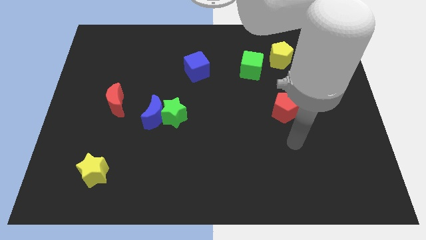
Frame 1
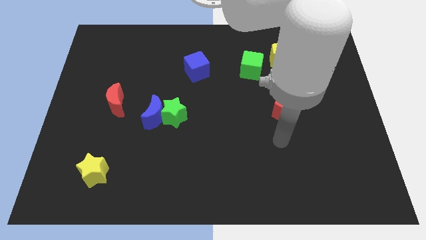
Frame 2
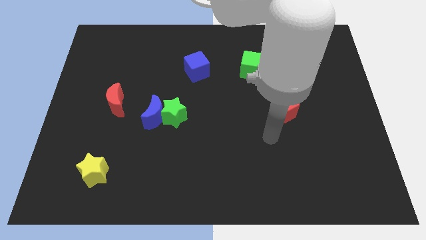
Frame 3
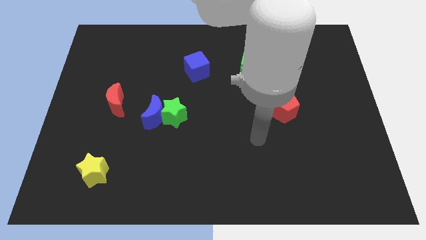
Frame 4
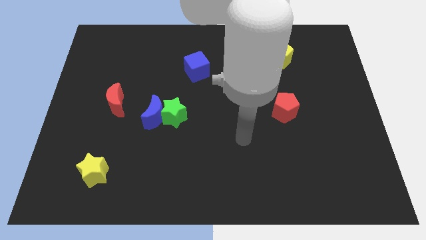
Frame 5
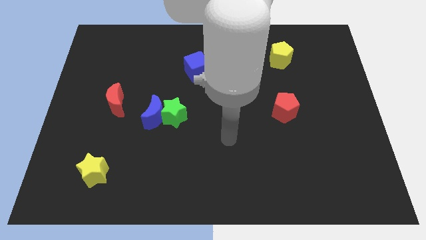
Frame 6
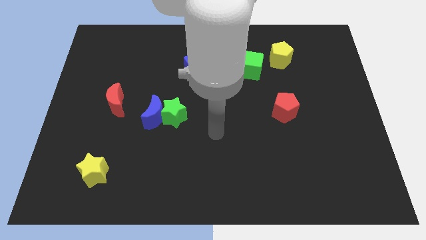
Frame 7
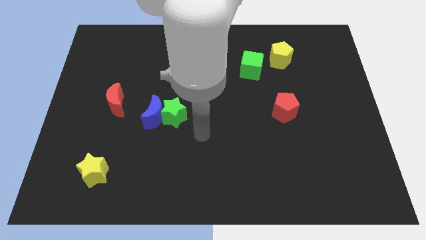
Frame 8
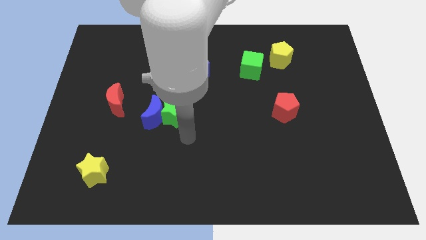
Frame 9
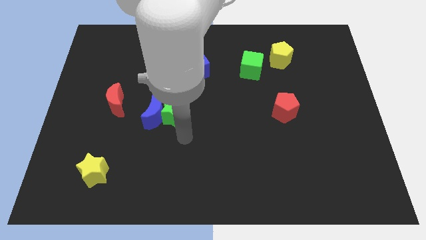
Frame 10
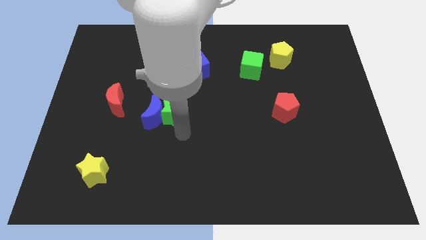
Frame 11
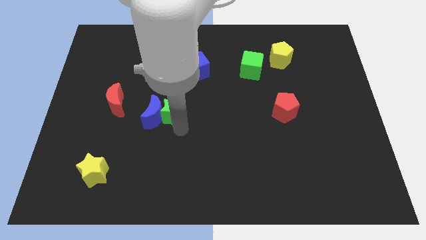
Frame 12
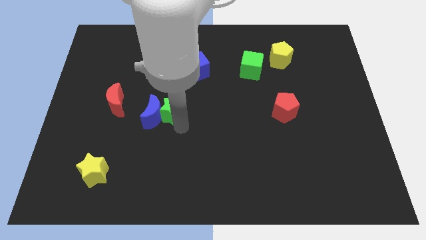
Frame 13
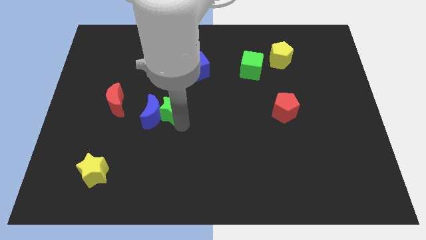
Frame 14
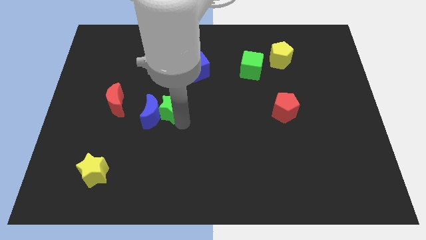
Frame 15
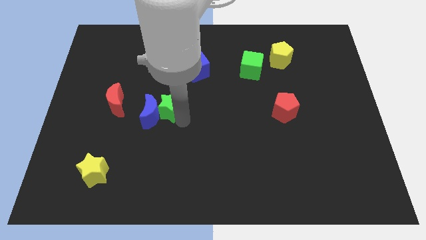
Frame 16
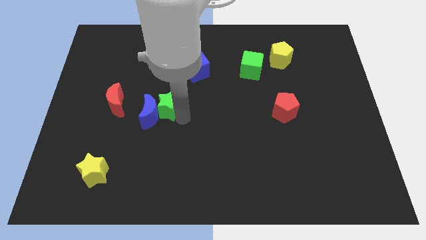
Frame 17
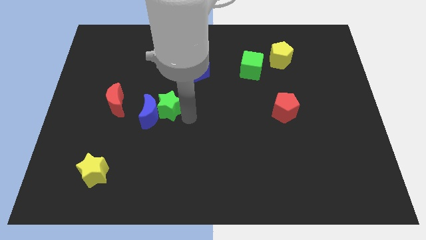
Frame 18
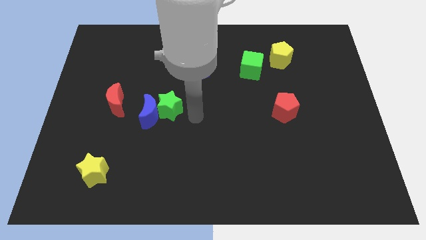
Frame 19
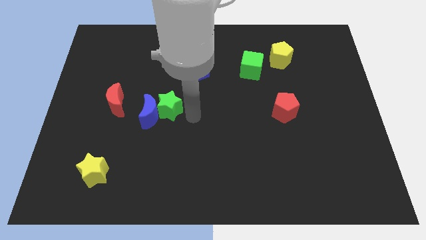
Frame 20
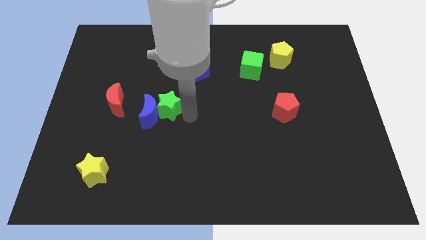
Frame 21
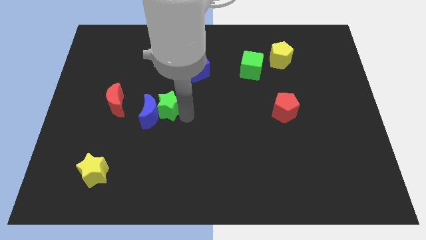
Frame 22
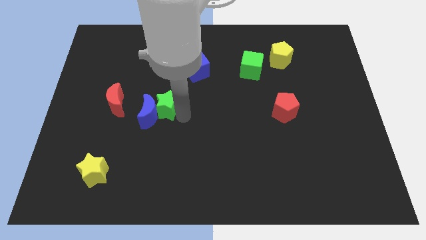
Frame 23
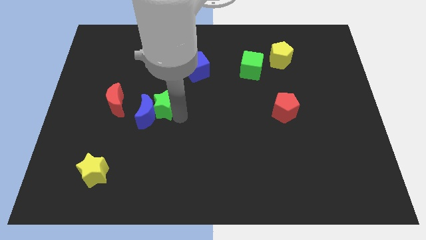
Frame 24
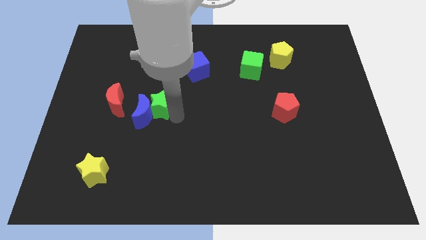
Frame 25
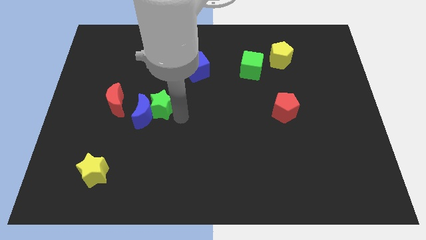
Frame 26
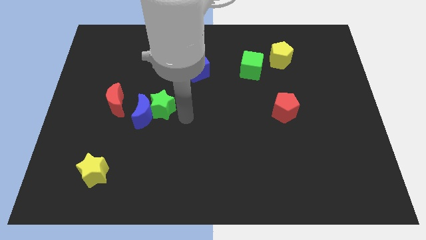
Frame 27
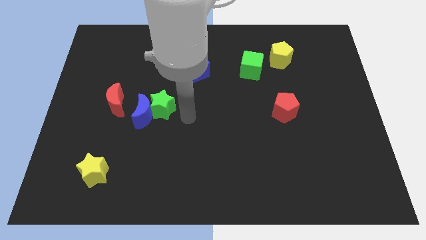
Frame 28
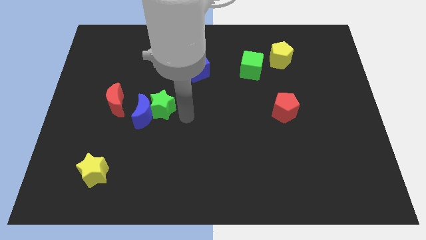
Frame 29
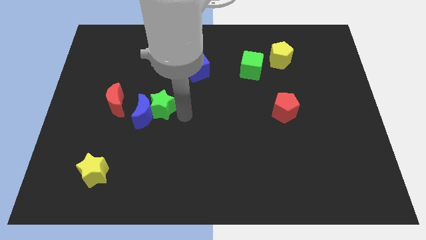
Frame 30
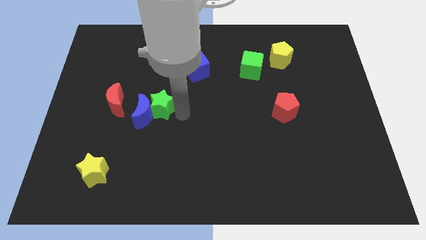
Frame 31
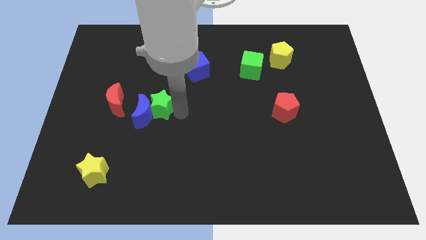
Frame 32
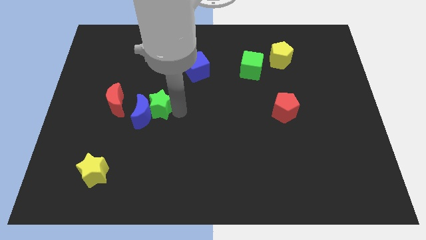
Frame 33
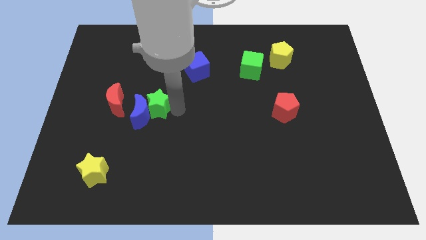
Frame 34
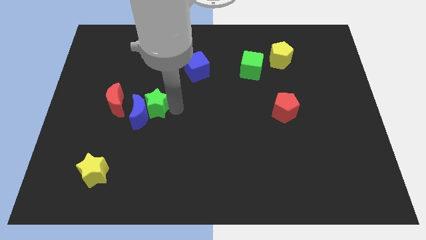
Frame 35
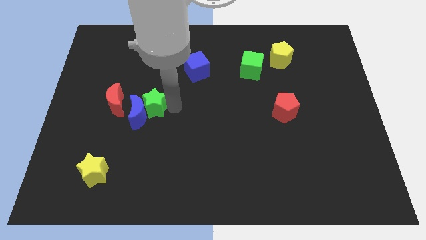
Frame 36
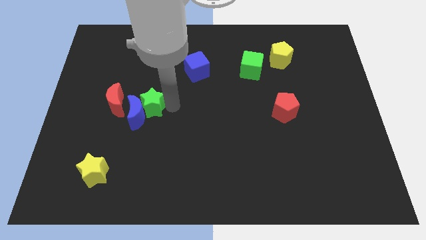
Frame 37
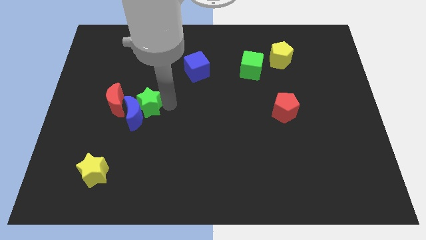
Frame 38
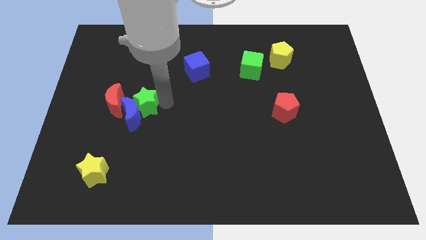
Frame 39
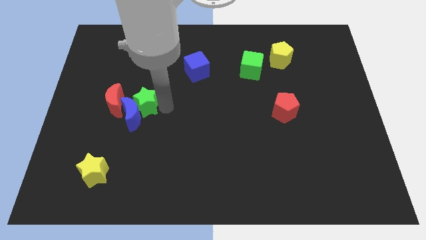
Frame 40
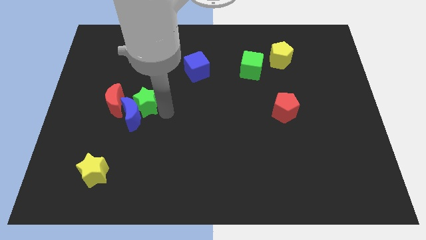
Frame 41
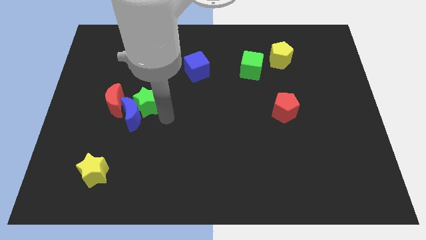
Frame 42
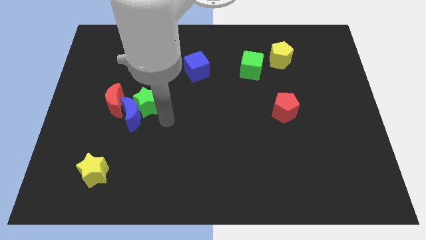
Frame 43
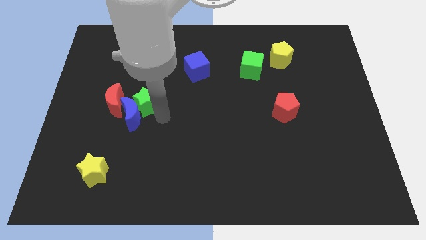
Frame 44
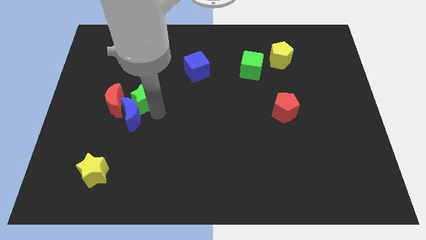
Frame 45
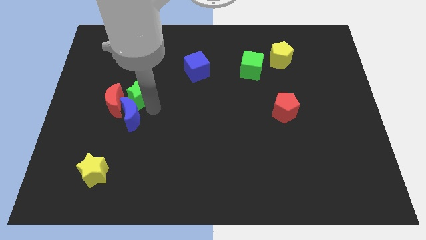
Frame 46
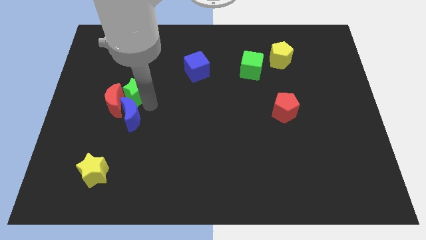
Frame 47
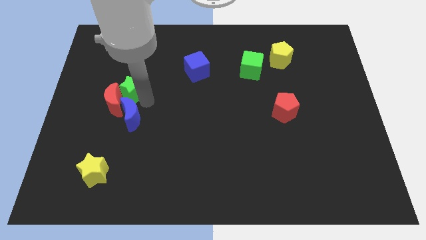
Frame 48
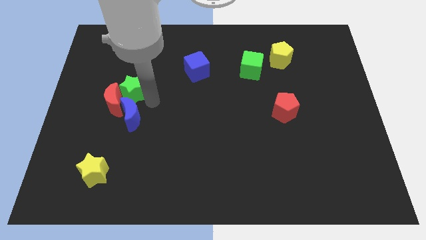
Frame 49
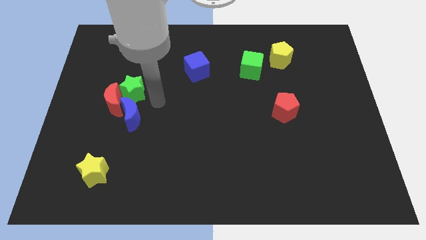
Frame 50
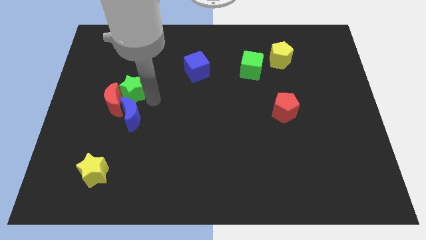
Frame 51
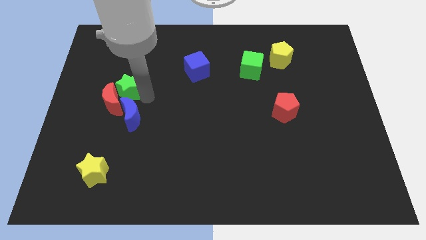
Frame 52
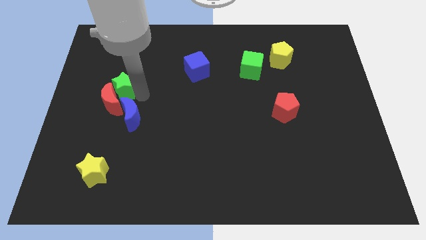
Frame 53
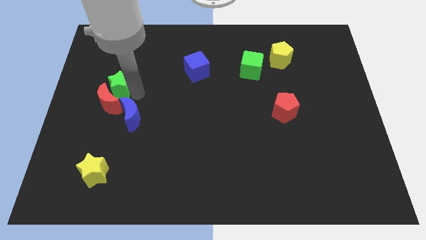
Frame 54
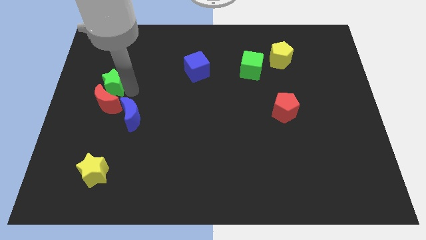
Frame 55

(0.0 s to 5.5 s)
put the green star to the top left of the red moon

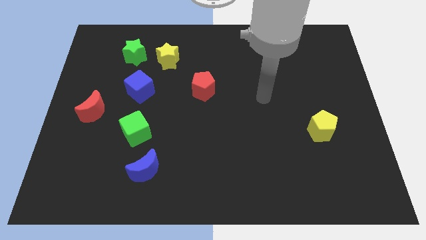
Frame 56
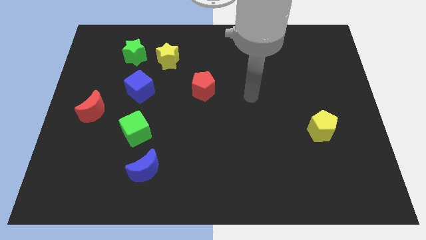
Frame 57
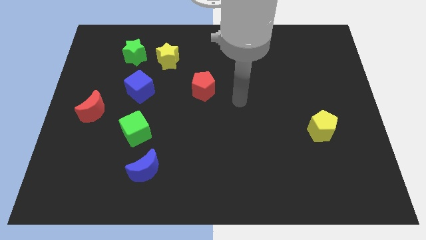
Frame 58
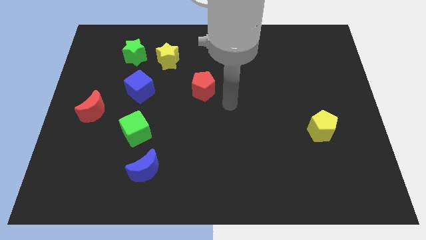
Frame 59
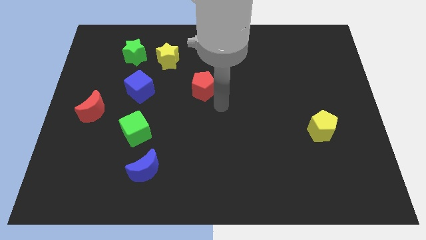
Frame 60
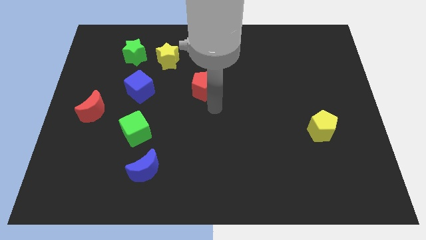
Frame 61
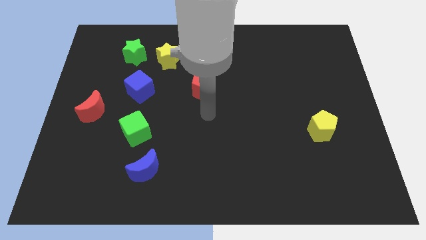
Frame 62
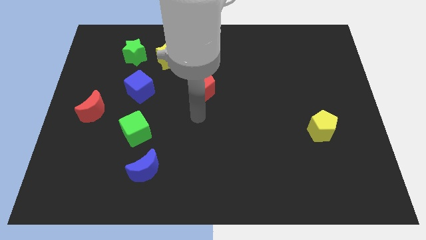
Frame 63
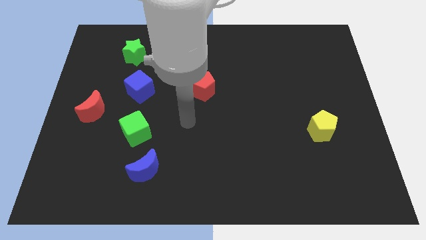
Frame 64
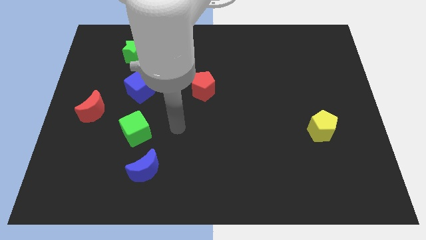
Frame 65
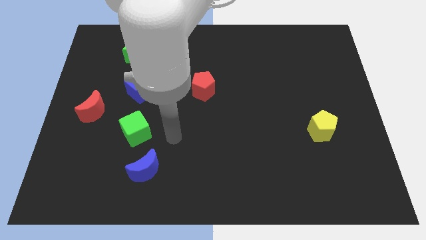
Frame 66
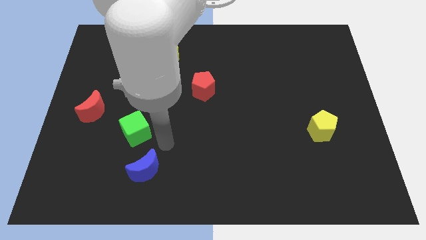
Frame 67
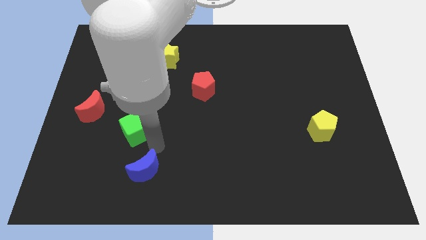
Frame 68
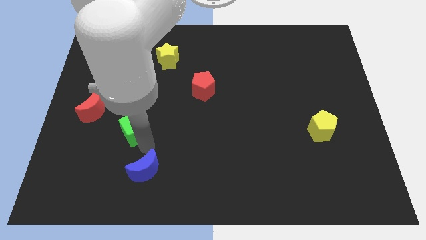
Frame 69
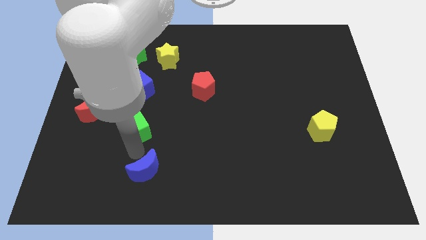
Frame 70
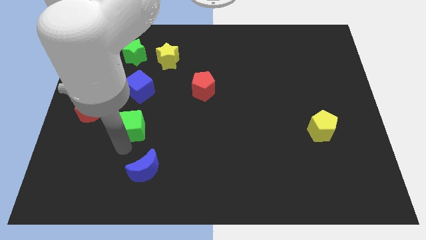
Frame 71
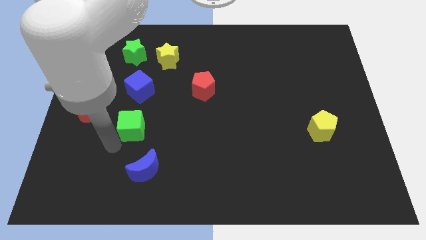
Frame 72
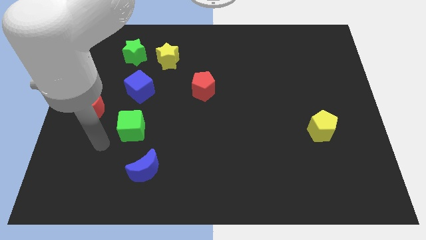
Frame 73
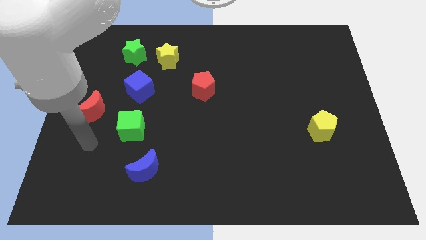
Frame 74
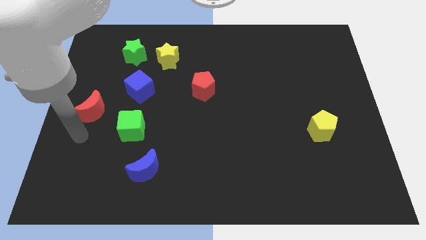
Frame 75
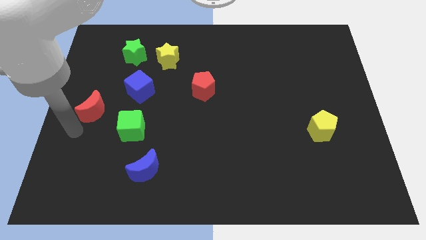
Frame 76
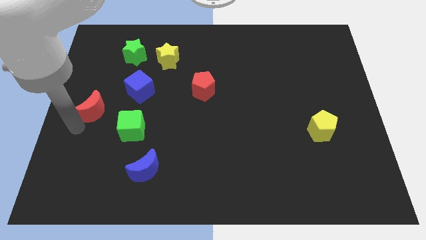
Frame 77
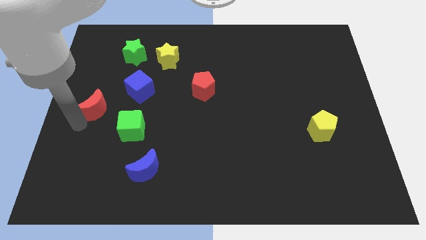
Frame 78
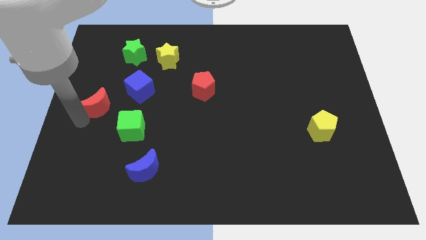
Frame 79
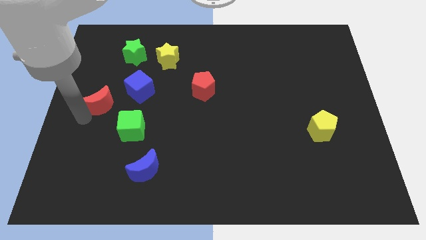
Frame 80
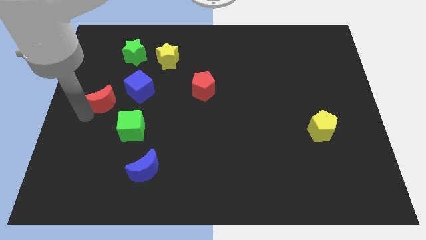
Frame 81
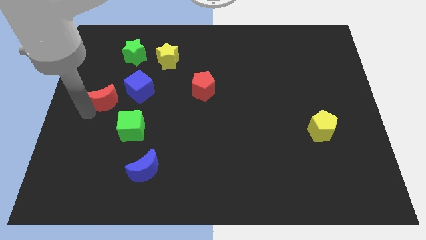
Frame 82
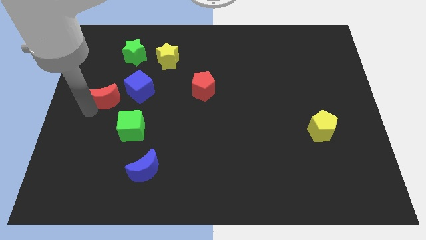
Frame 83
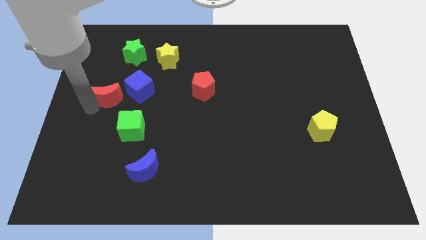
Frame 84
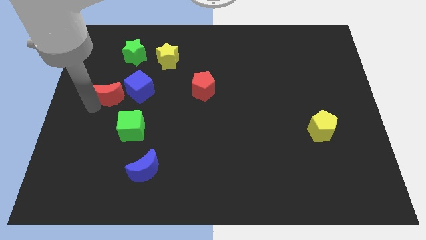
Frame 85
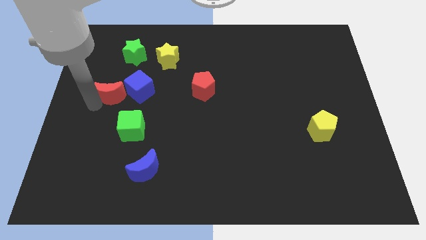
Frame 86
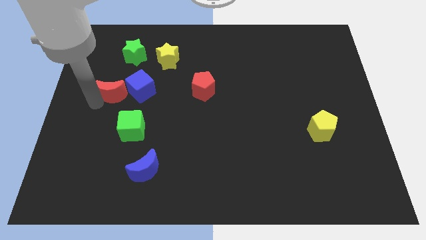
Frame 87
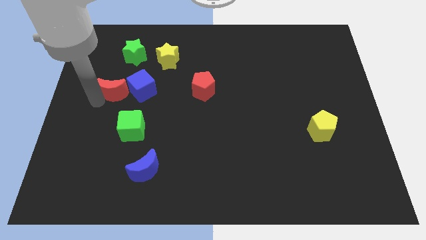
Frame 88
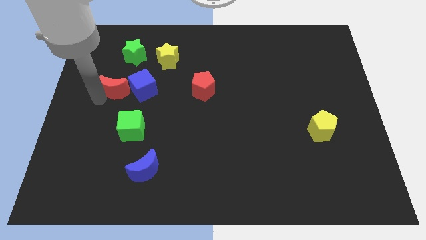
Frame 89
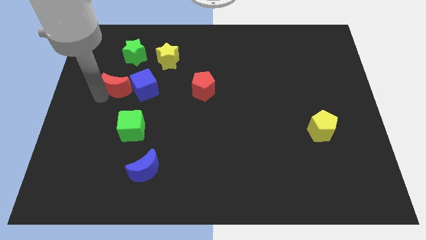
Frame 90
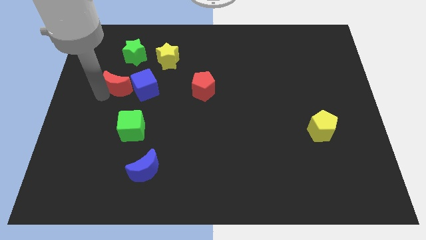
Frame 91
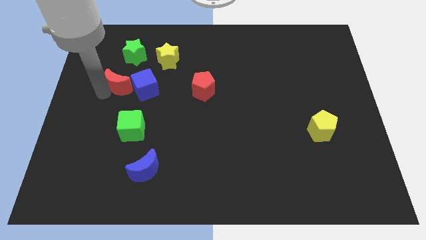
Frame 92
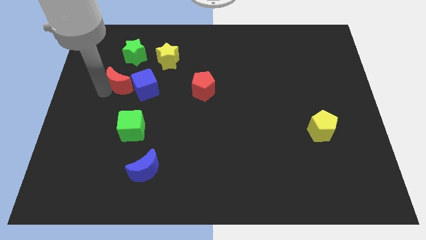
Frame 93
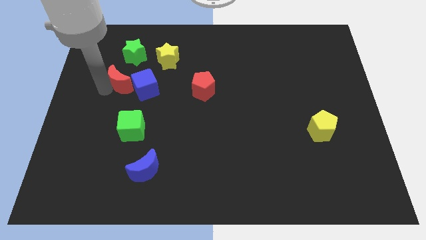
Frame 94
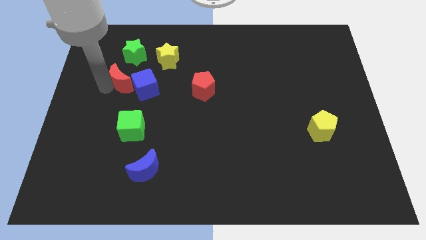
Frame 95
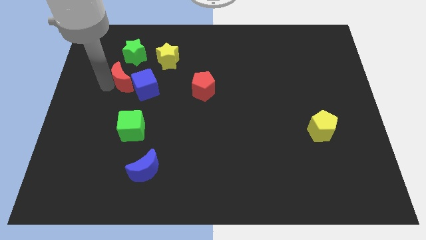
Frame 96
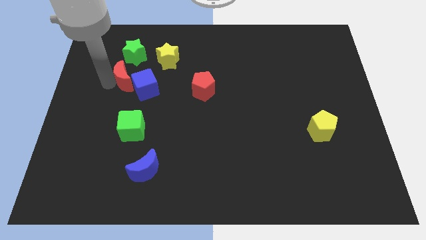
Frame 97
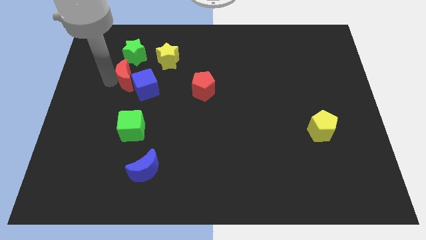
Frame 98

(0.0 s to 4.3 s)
put the red moon to the bottom left side of the yellow star
